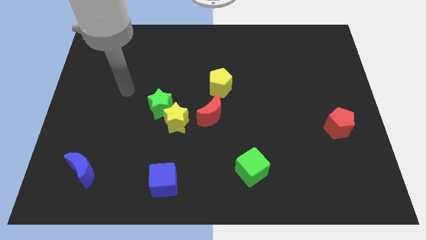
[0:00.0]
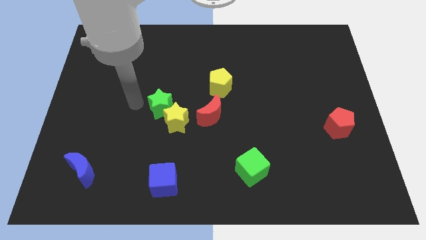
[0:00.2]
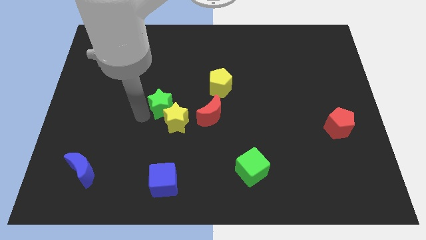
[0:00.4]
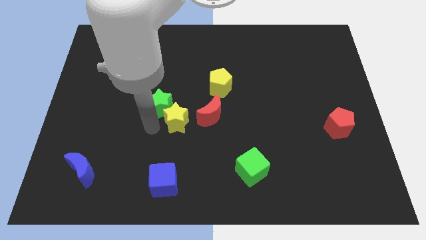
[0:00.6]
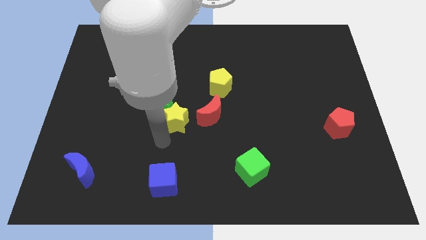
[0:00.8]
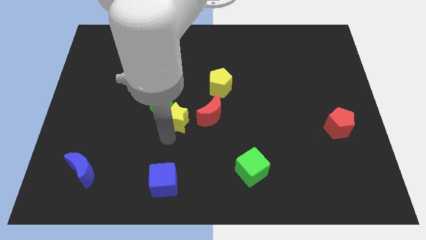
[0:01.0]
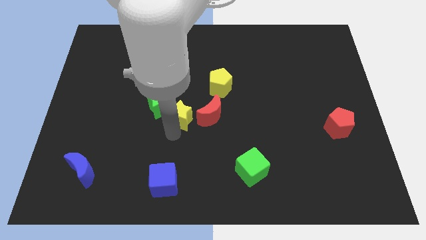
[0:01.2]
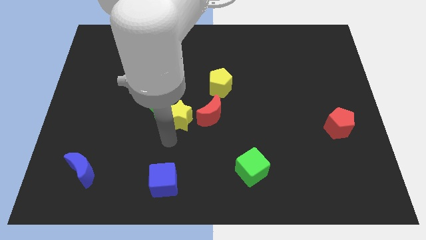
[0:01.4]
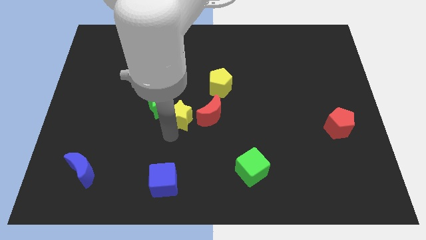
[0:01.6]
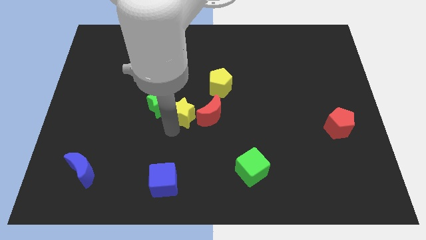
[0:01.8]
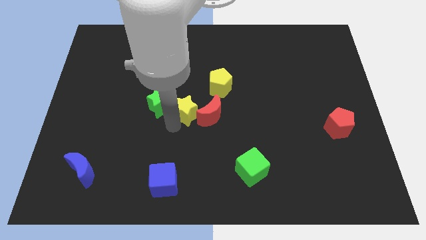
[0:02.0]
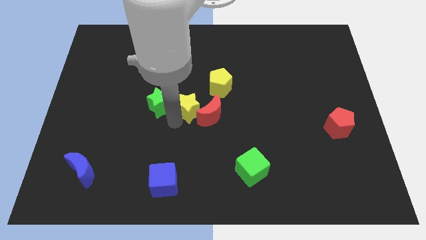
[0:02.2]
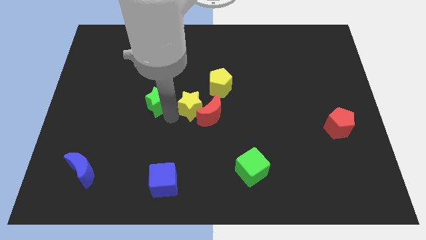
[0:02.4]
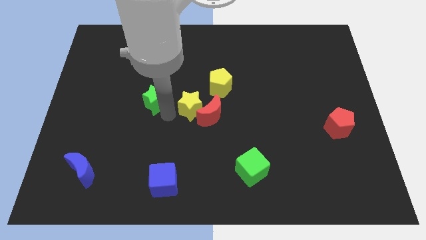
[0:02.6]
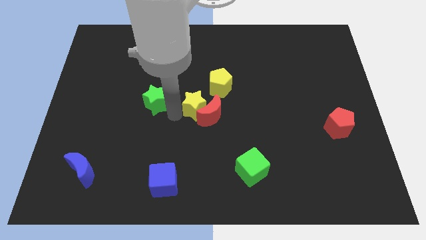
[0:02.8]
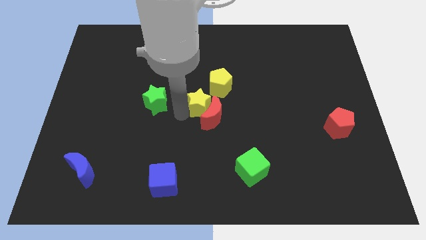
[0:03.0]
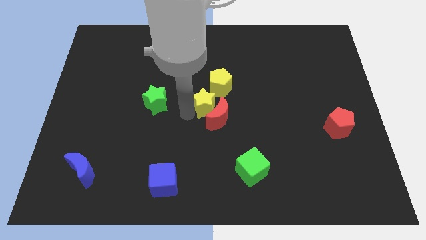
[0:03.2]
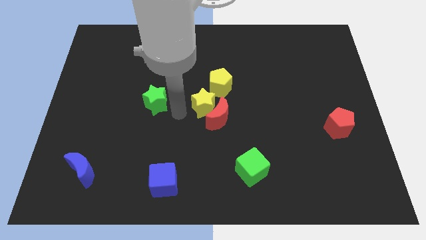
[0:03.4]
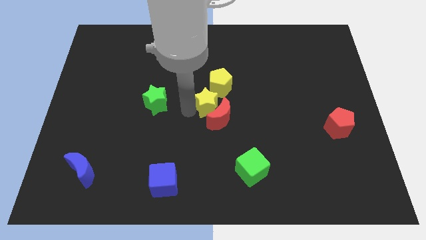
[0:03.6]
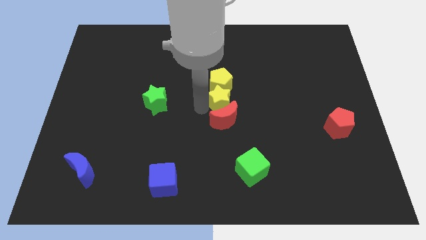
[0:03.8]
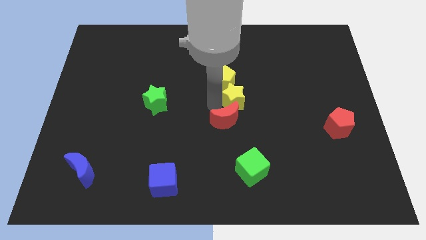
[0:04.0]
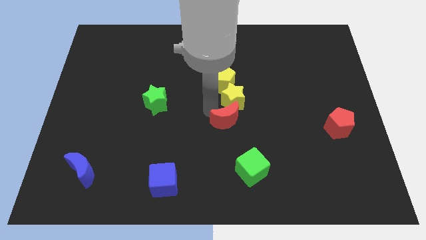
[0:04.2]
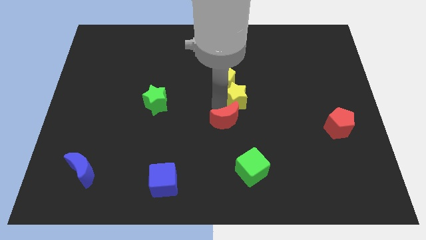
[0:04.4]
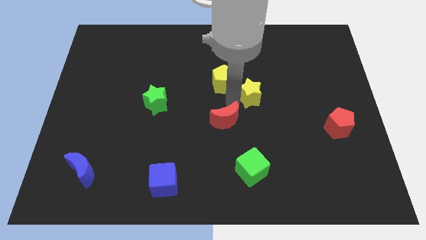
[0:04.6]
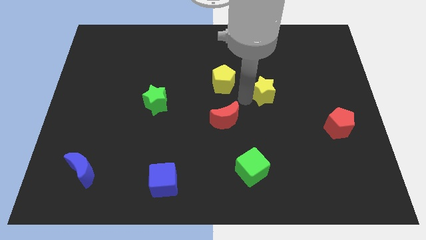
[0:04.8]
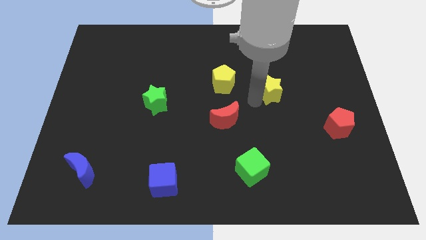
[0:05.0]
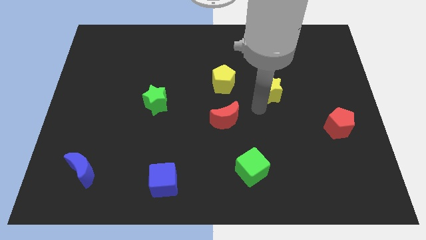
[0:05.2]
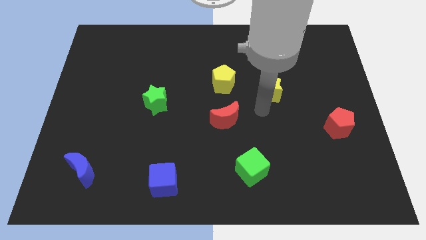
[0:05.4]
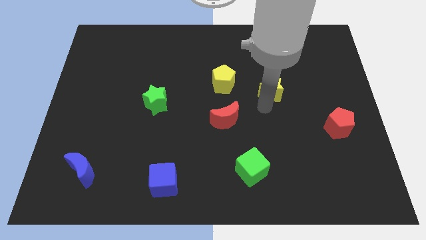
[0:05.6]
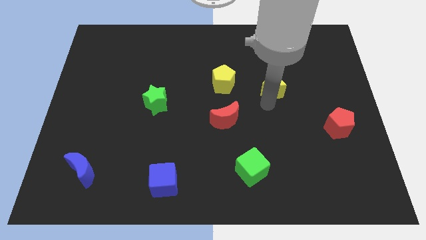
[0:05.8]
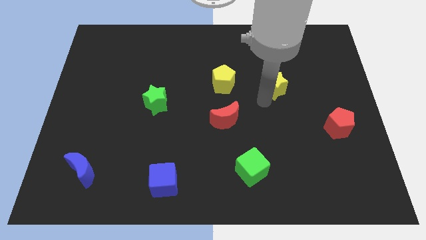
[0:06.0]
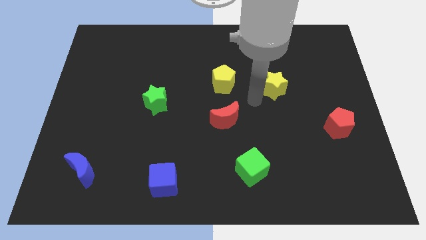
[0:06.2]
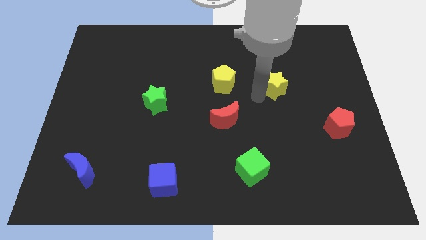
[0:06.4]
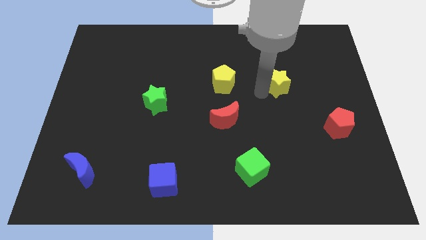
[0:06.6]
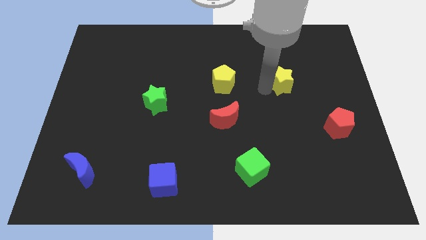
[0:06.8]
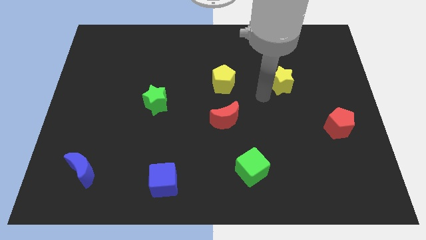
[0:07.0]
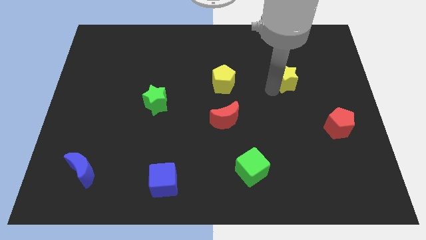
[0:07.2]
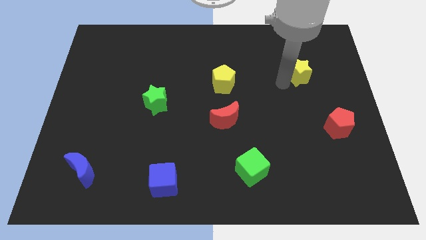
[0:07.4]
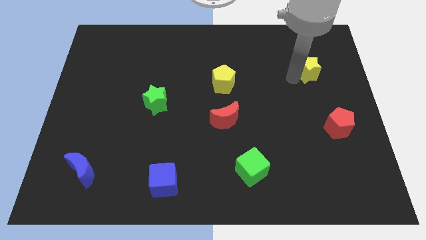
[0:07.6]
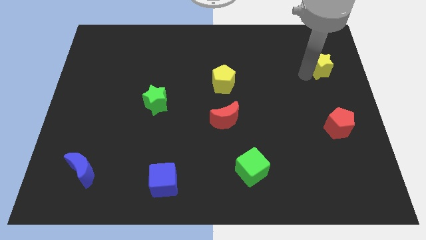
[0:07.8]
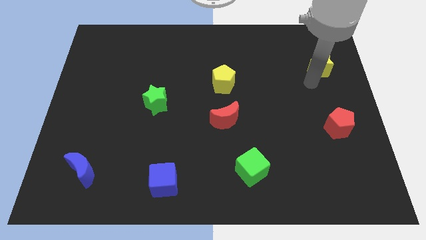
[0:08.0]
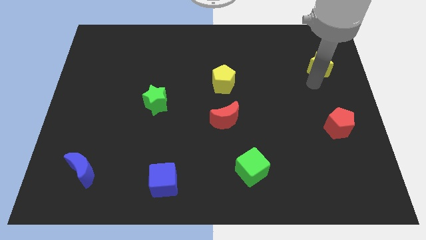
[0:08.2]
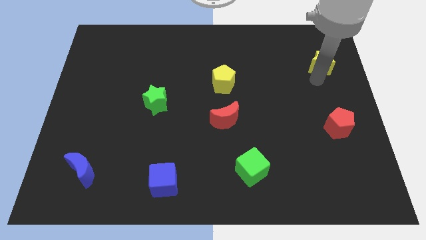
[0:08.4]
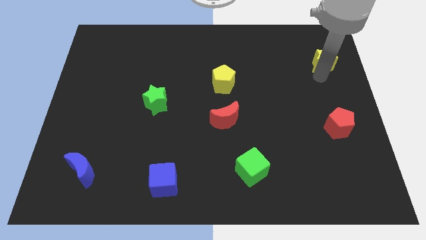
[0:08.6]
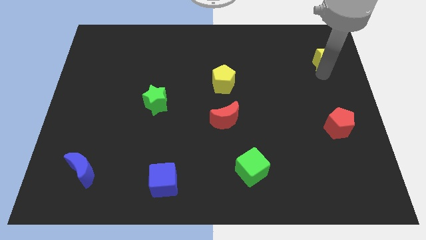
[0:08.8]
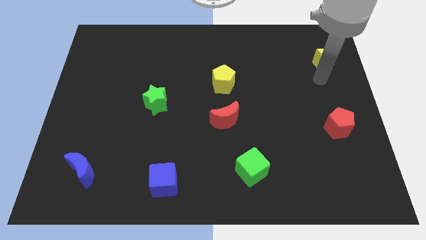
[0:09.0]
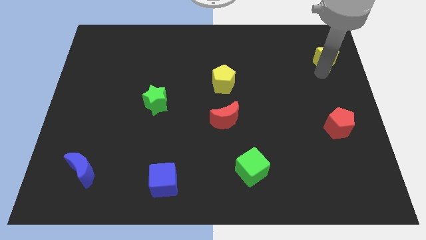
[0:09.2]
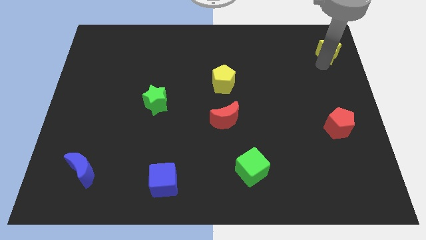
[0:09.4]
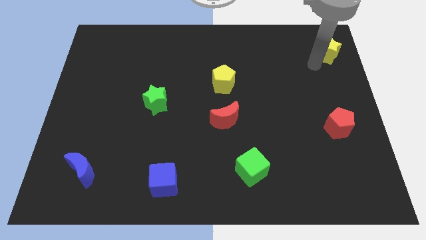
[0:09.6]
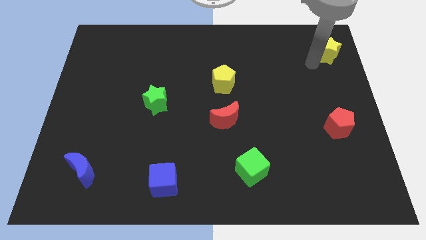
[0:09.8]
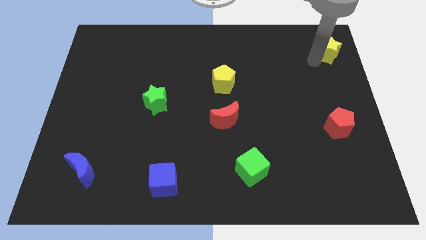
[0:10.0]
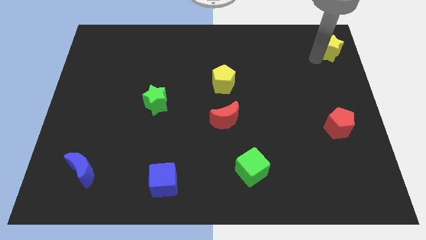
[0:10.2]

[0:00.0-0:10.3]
move the yellow star to the top right corner

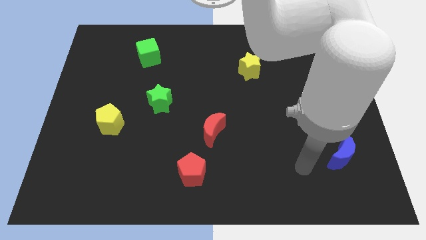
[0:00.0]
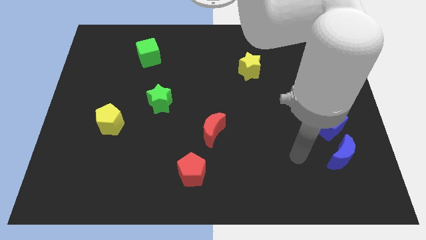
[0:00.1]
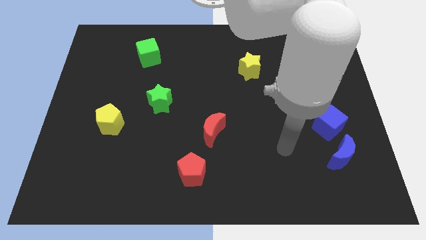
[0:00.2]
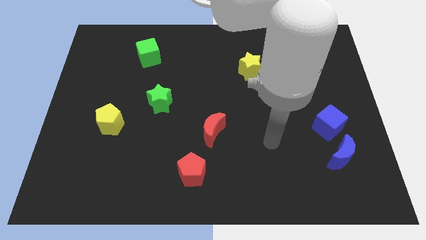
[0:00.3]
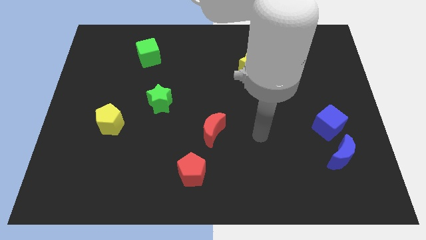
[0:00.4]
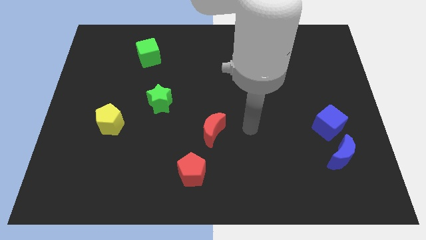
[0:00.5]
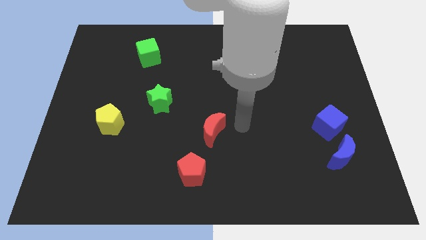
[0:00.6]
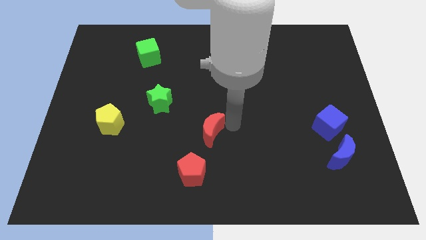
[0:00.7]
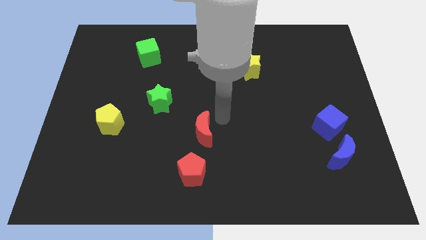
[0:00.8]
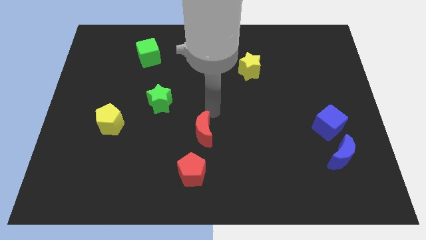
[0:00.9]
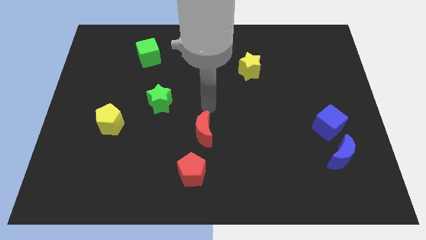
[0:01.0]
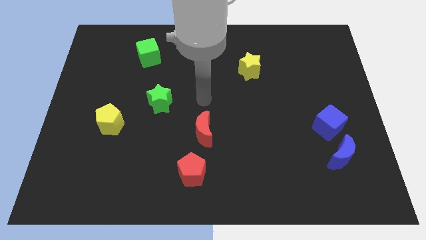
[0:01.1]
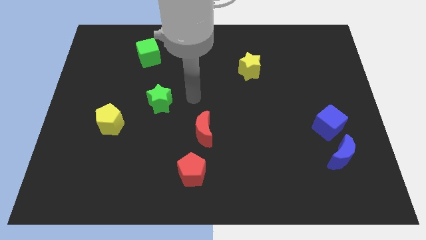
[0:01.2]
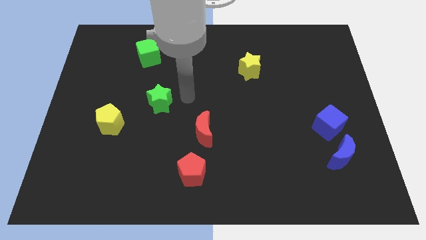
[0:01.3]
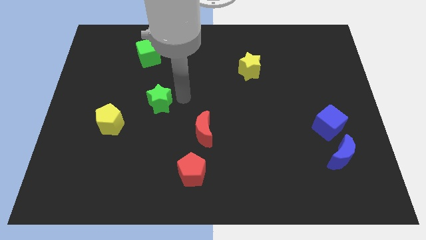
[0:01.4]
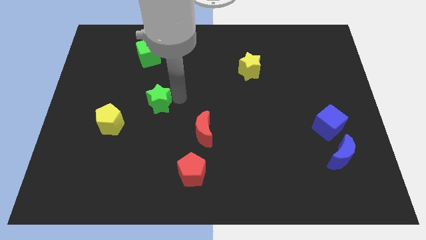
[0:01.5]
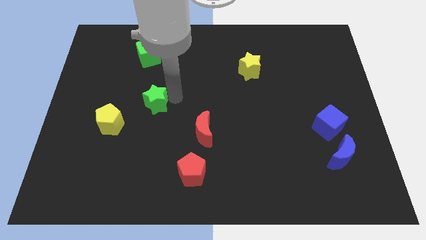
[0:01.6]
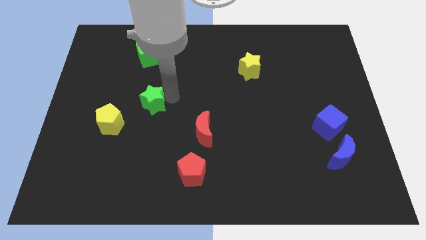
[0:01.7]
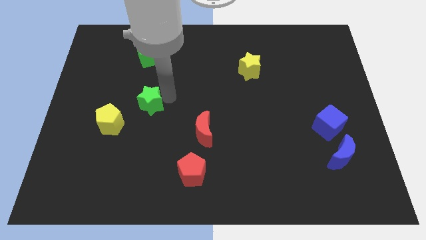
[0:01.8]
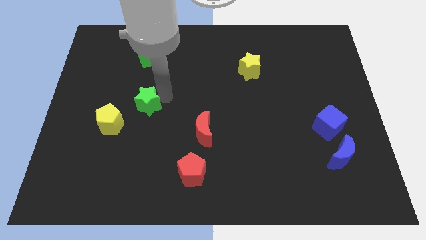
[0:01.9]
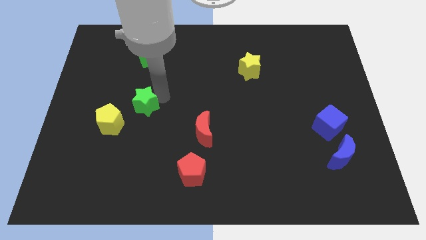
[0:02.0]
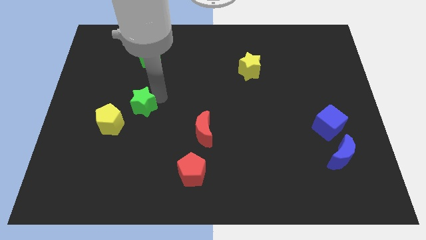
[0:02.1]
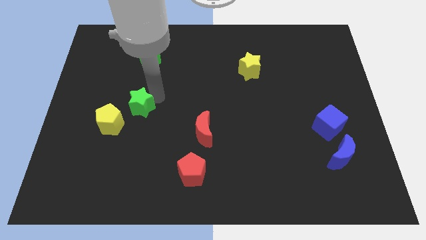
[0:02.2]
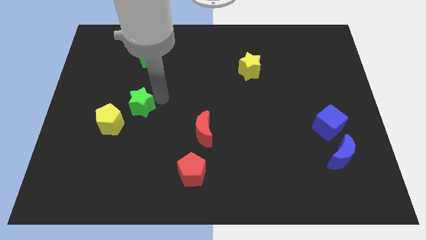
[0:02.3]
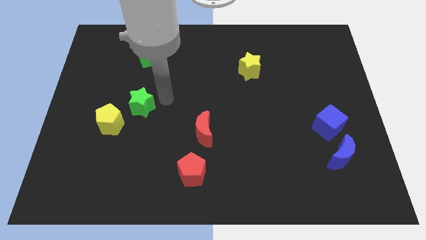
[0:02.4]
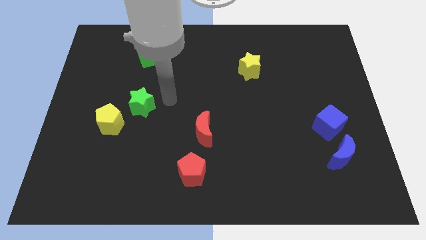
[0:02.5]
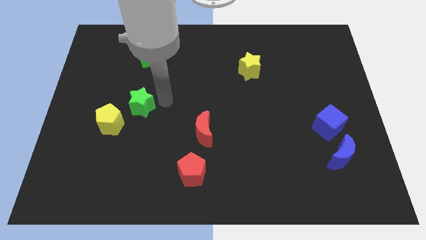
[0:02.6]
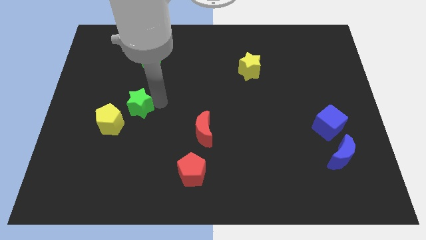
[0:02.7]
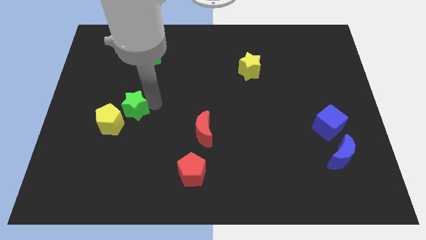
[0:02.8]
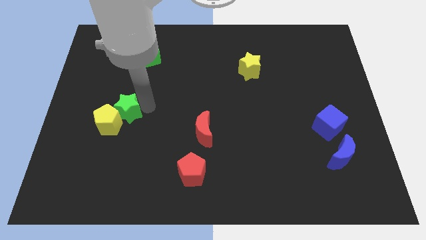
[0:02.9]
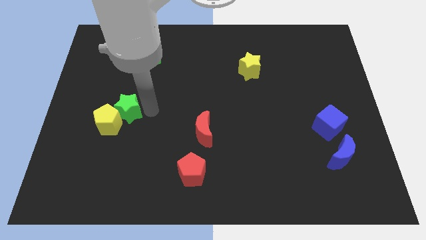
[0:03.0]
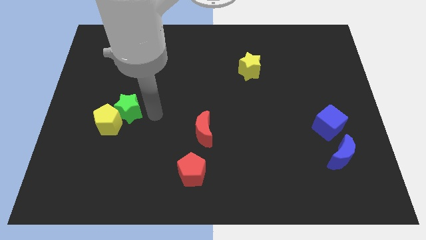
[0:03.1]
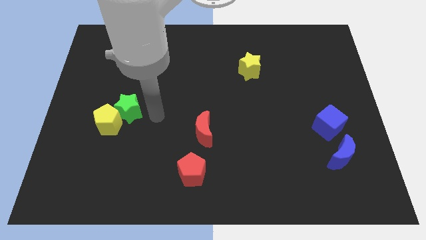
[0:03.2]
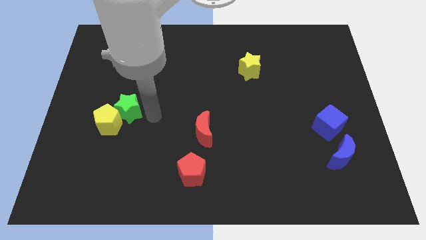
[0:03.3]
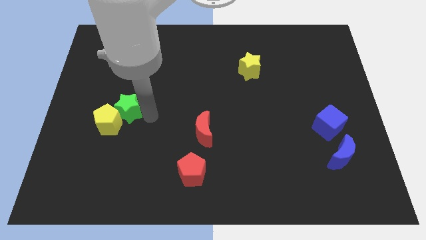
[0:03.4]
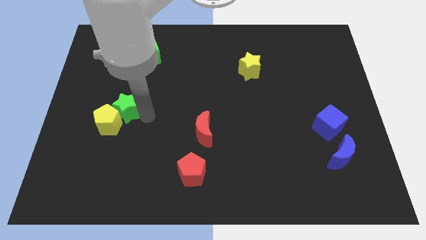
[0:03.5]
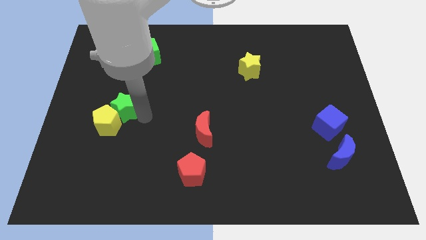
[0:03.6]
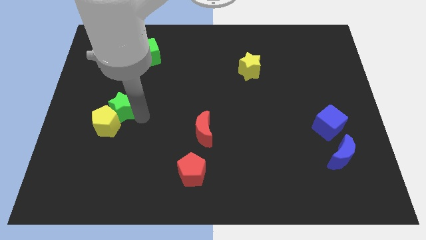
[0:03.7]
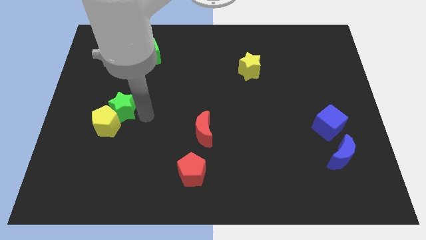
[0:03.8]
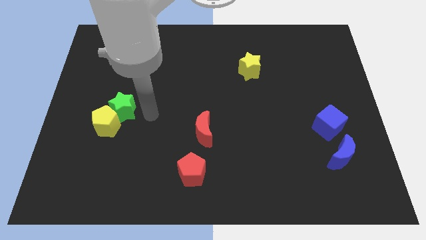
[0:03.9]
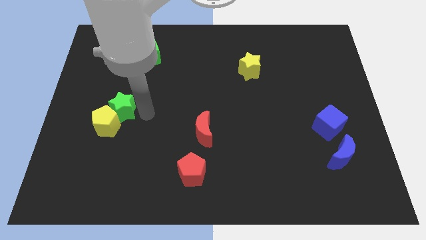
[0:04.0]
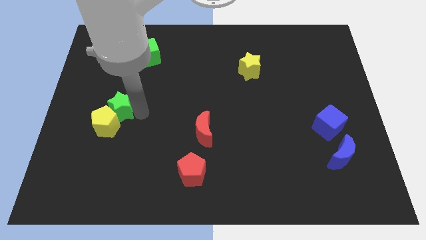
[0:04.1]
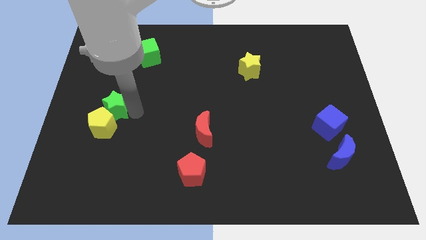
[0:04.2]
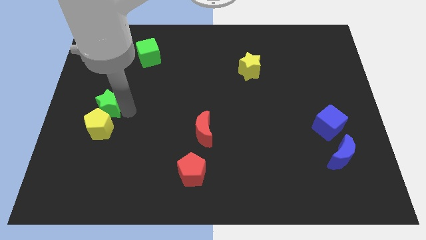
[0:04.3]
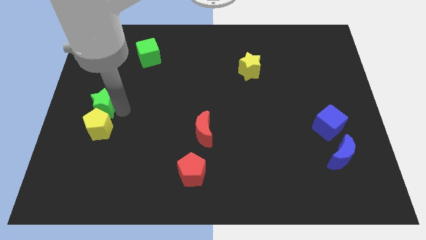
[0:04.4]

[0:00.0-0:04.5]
move the green star to the center left
